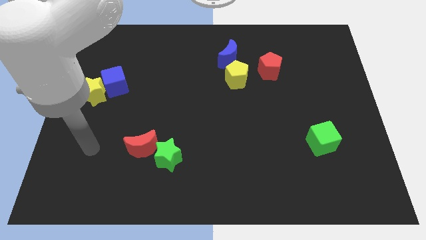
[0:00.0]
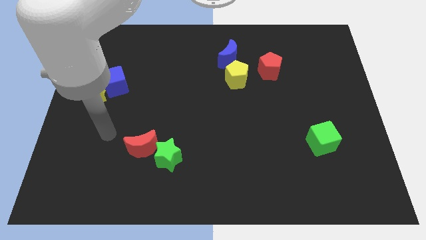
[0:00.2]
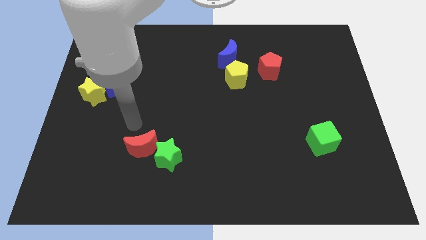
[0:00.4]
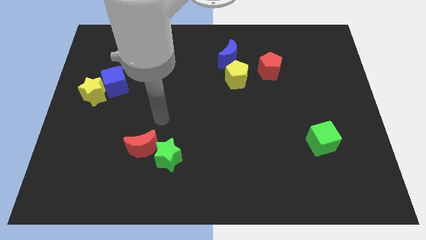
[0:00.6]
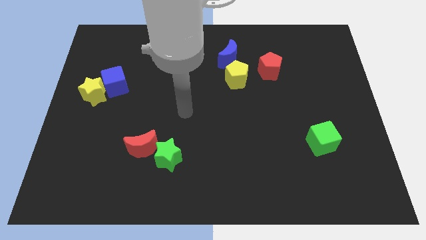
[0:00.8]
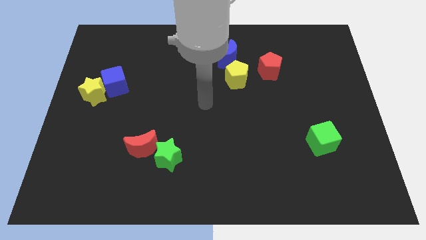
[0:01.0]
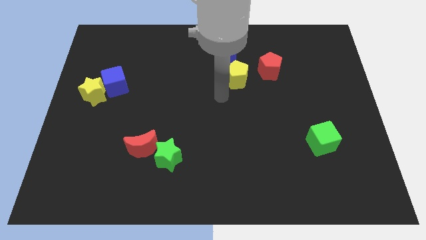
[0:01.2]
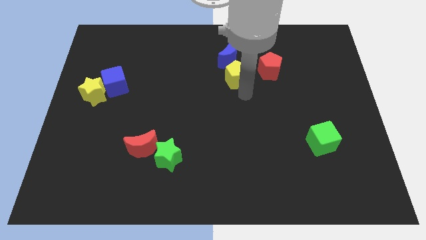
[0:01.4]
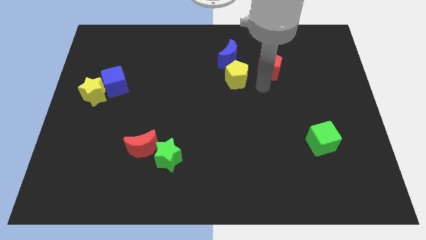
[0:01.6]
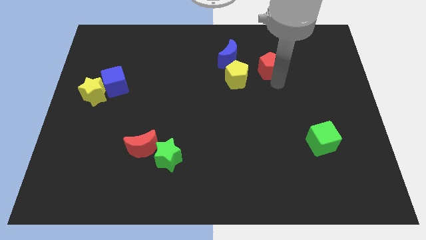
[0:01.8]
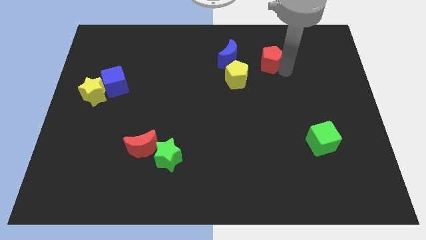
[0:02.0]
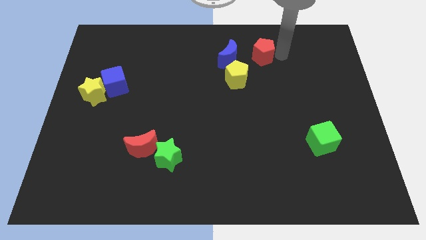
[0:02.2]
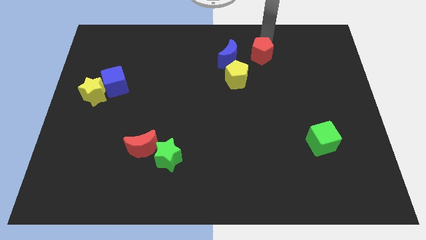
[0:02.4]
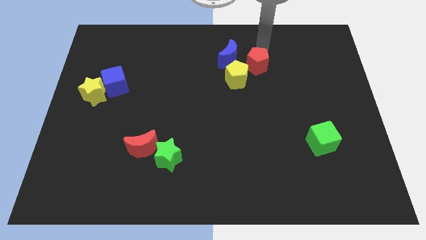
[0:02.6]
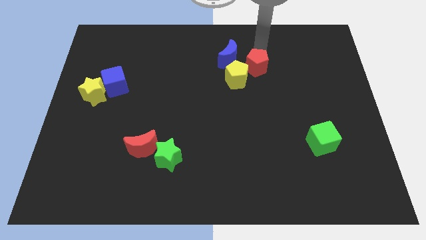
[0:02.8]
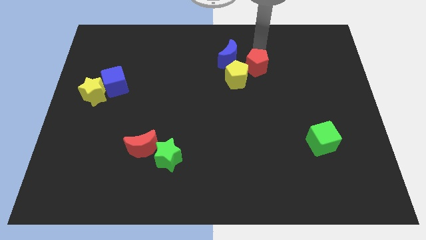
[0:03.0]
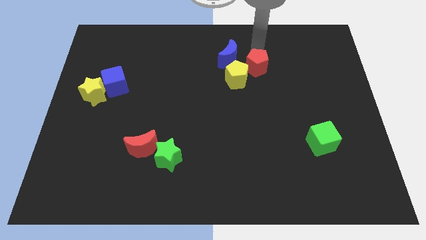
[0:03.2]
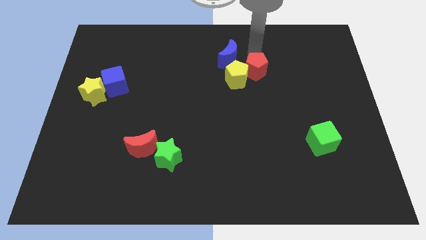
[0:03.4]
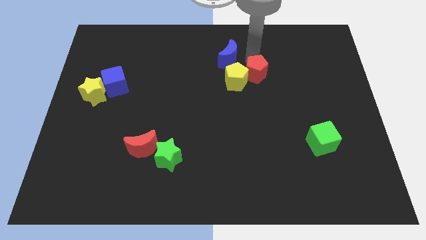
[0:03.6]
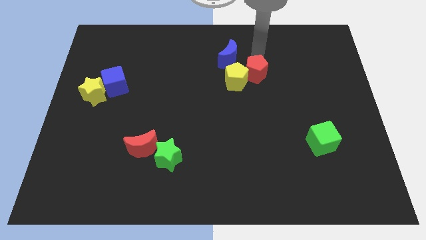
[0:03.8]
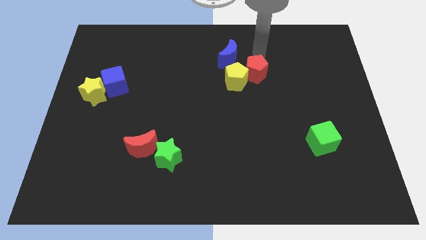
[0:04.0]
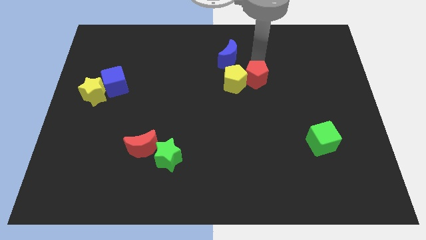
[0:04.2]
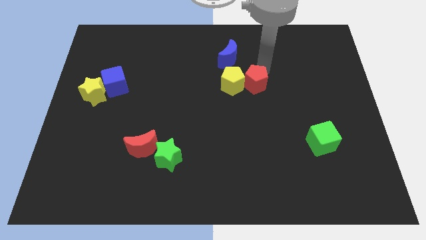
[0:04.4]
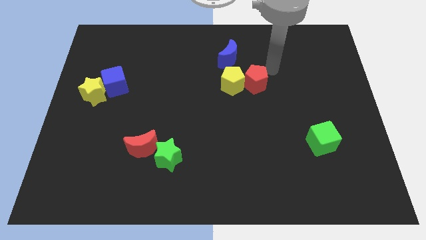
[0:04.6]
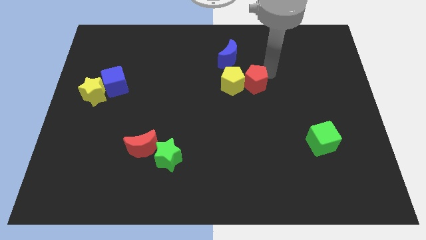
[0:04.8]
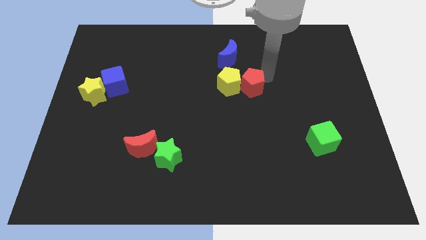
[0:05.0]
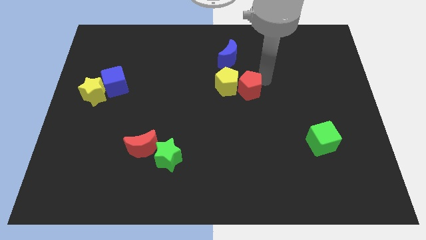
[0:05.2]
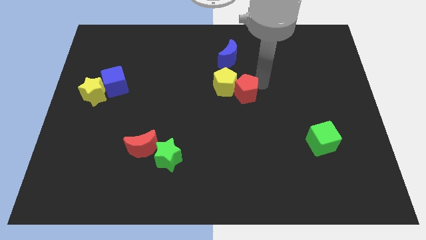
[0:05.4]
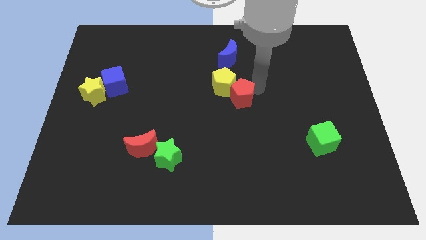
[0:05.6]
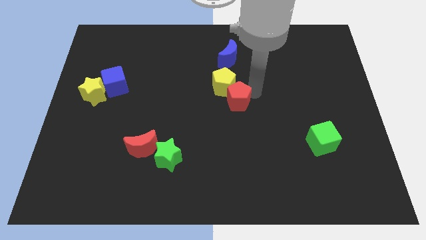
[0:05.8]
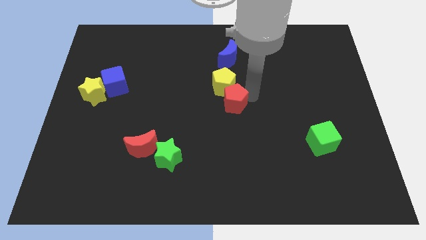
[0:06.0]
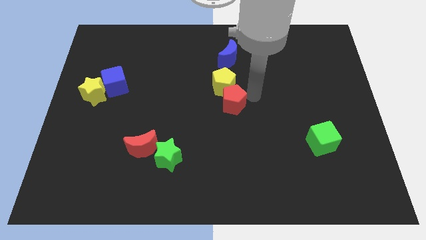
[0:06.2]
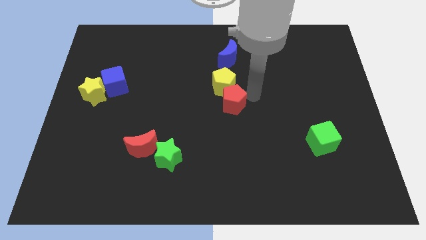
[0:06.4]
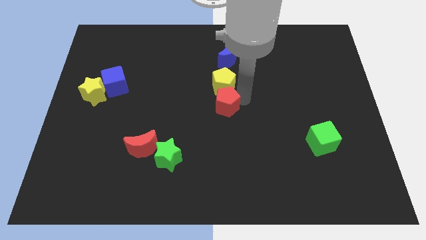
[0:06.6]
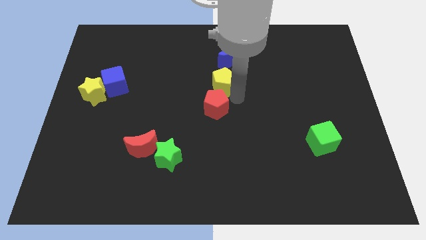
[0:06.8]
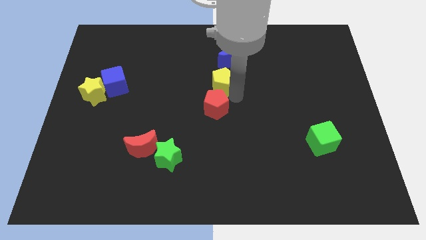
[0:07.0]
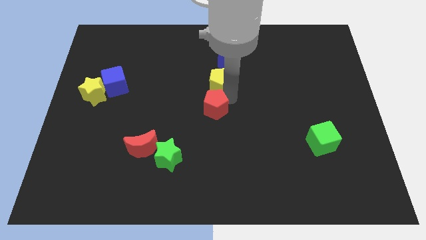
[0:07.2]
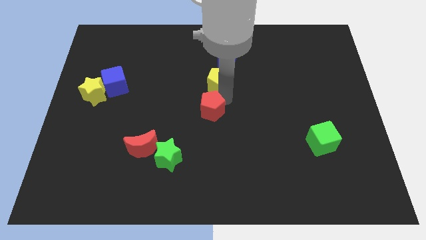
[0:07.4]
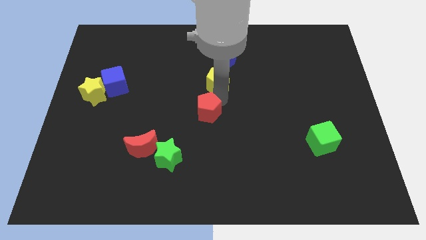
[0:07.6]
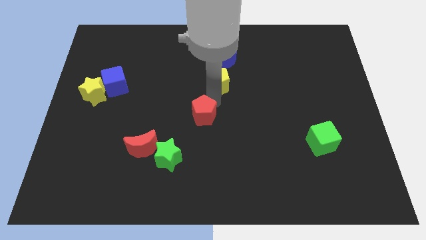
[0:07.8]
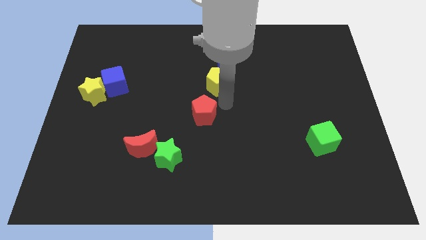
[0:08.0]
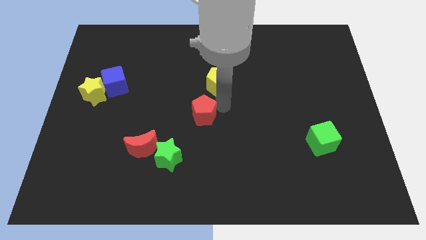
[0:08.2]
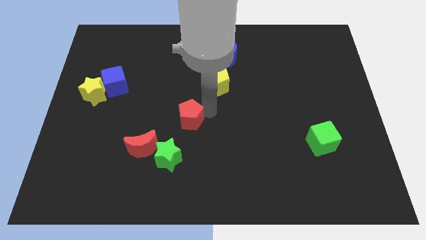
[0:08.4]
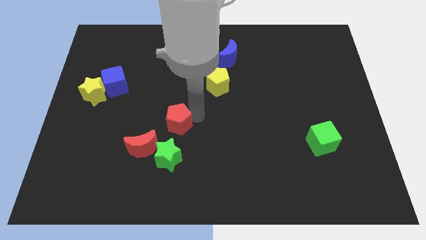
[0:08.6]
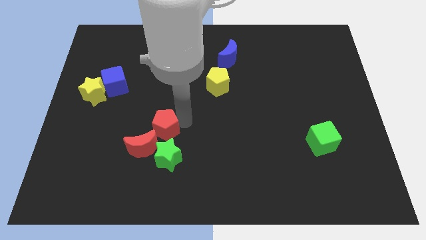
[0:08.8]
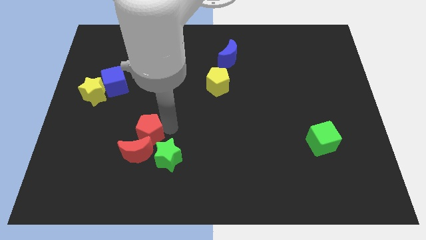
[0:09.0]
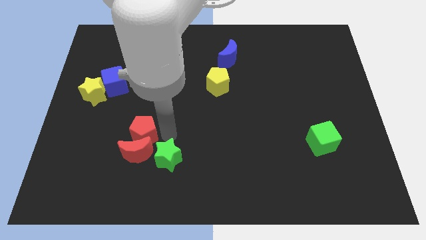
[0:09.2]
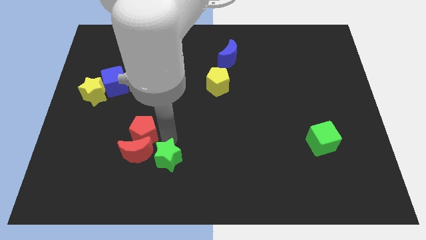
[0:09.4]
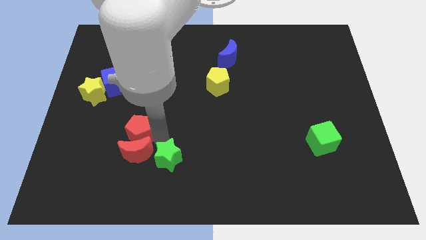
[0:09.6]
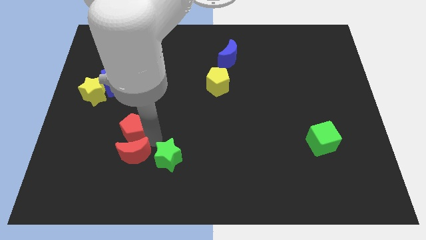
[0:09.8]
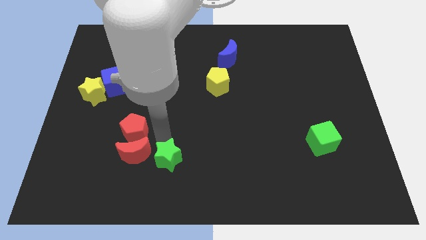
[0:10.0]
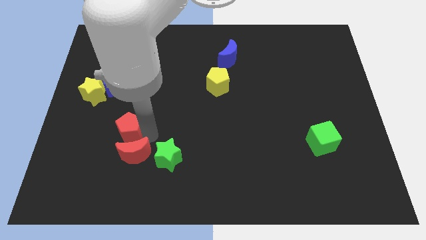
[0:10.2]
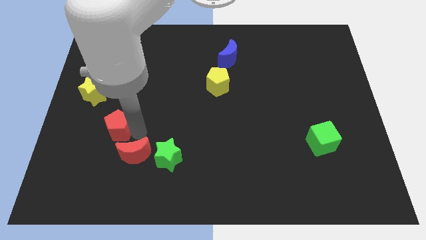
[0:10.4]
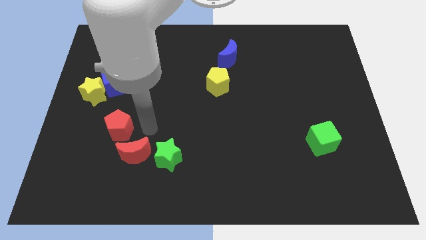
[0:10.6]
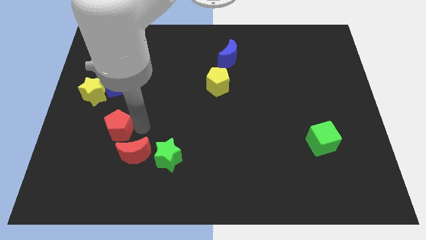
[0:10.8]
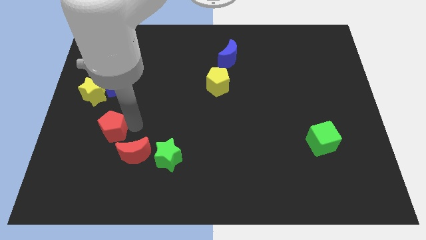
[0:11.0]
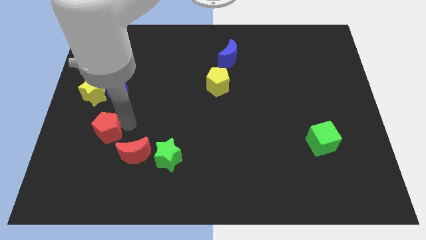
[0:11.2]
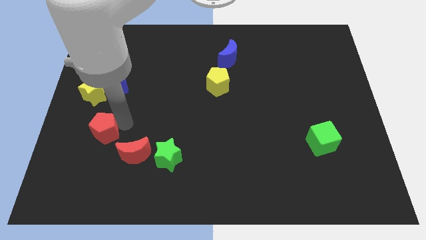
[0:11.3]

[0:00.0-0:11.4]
move the red pentagon to the bottom side of the yellow star
